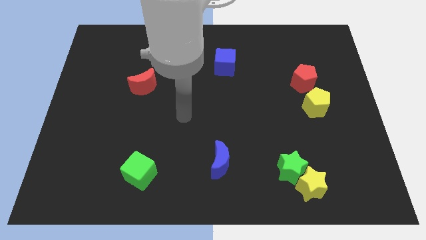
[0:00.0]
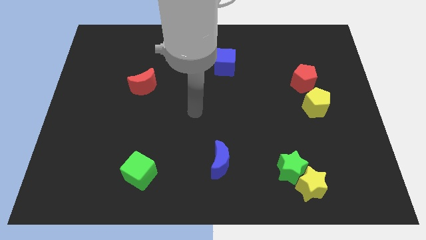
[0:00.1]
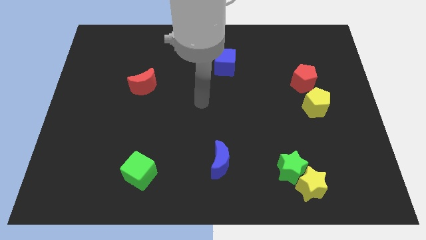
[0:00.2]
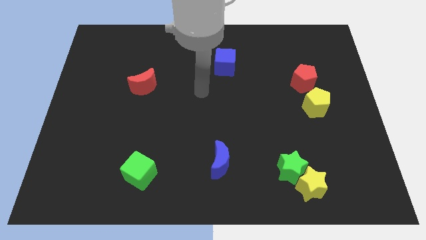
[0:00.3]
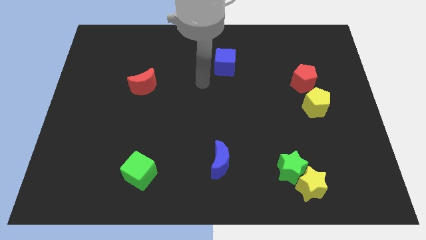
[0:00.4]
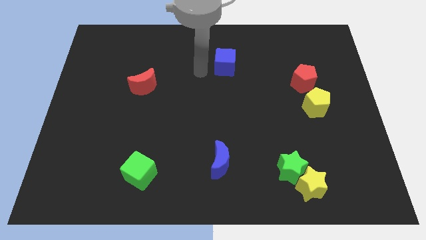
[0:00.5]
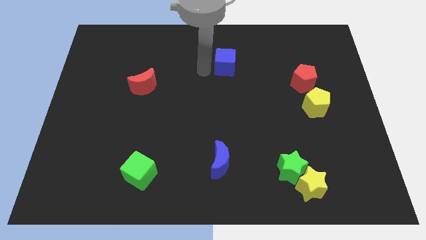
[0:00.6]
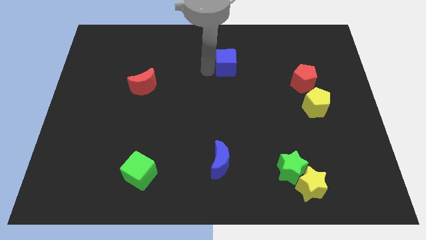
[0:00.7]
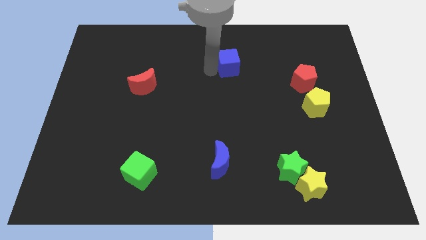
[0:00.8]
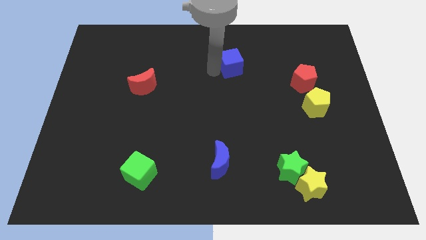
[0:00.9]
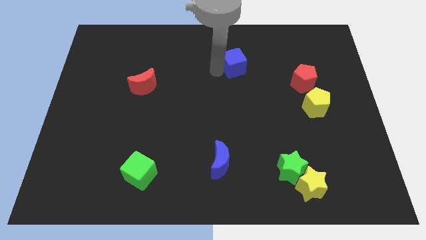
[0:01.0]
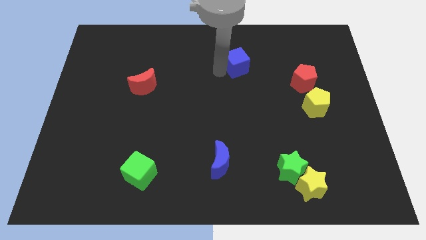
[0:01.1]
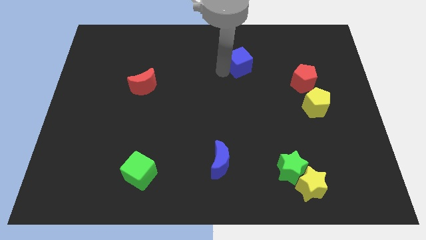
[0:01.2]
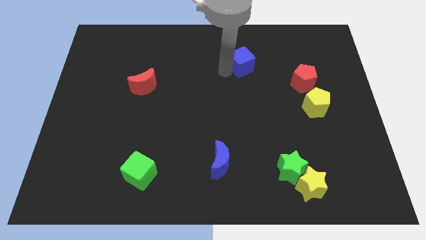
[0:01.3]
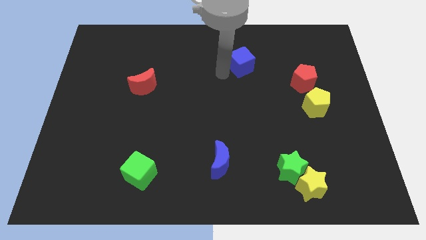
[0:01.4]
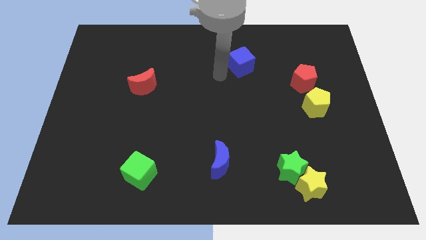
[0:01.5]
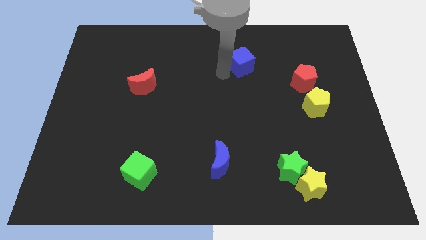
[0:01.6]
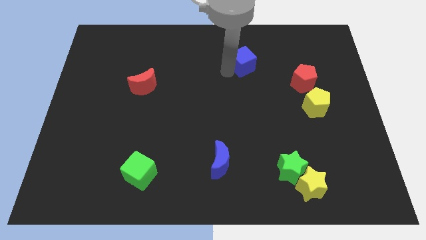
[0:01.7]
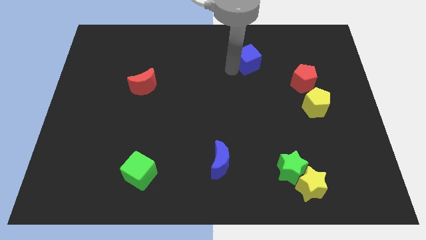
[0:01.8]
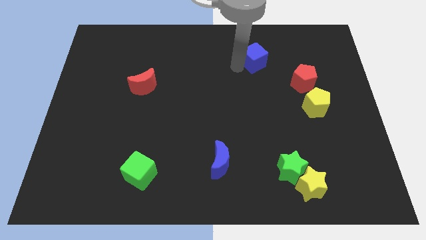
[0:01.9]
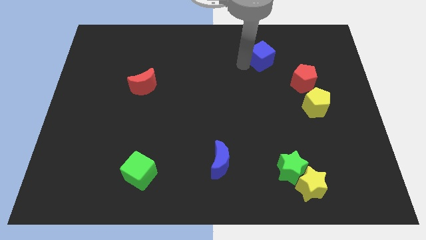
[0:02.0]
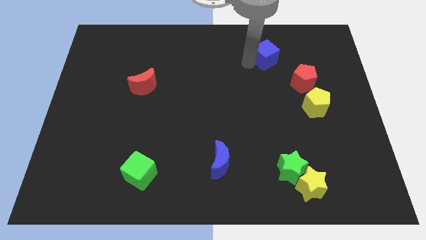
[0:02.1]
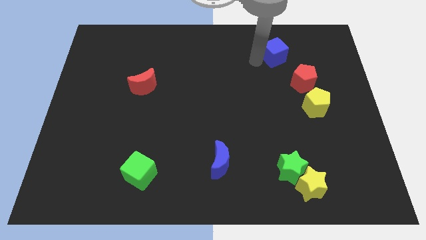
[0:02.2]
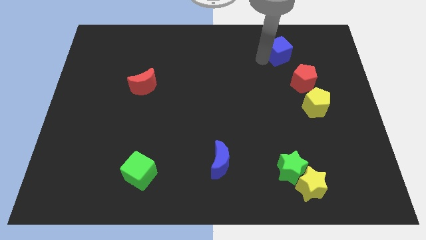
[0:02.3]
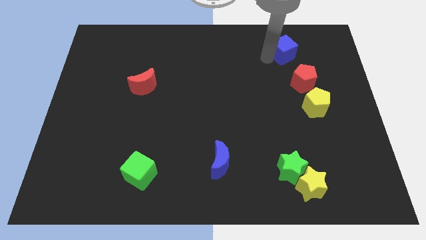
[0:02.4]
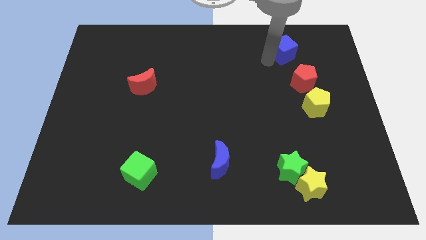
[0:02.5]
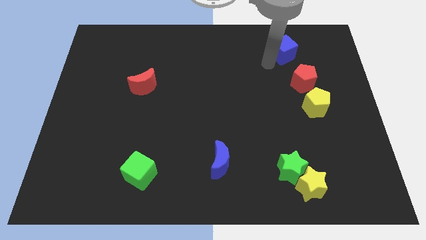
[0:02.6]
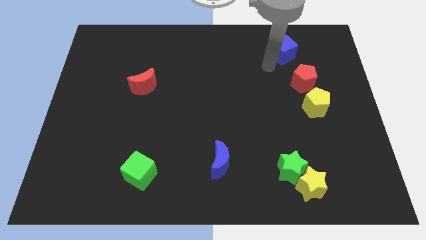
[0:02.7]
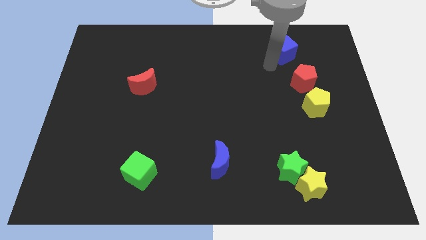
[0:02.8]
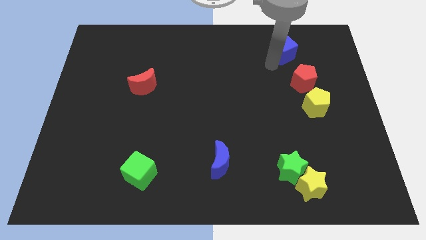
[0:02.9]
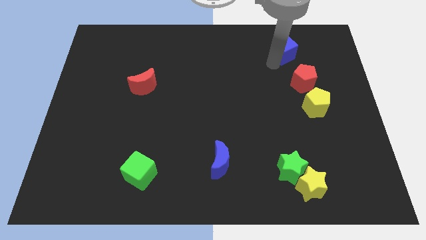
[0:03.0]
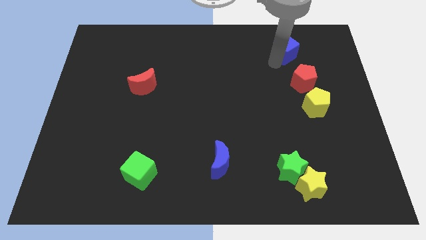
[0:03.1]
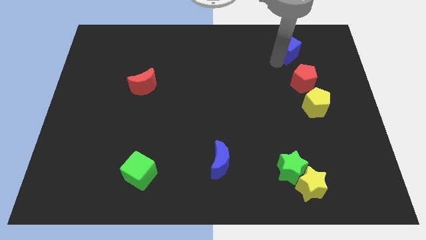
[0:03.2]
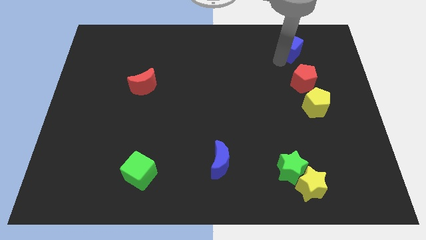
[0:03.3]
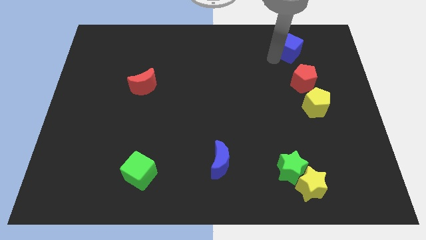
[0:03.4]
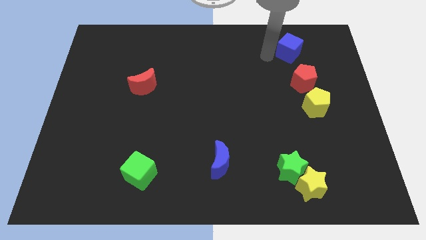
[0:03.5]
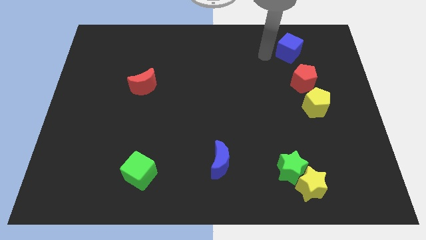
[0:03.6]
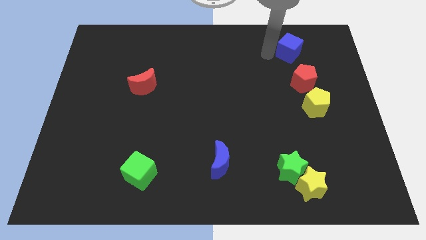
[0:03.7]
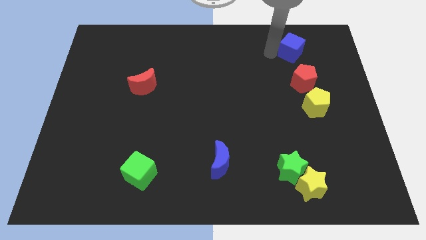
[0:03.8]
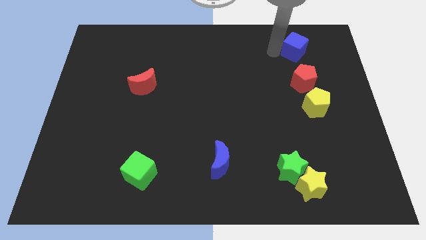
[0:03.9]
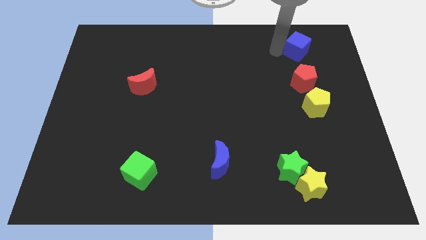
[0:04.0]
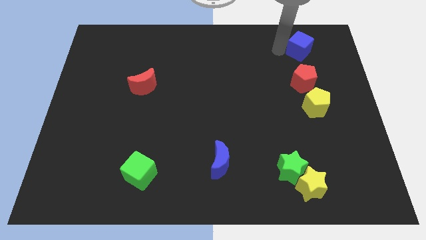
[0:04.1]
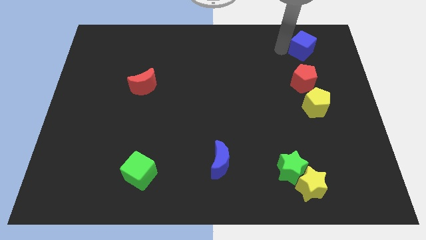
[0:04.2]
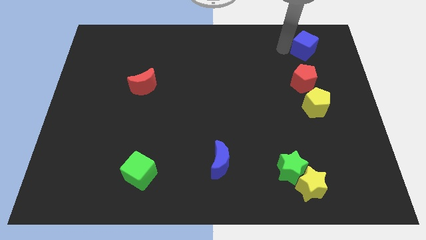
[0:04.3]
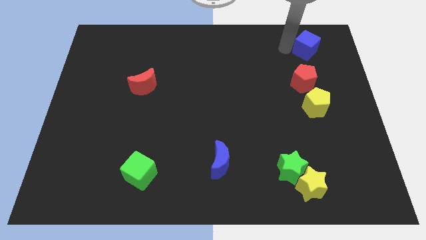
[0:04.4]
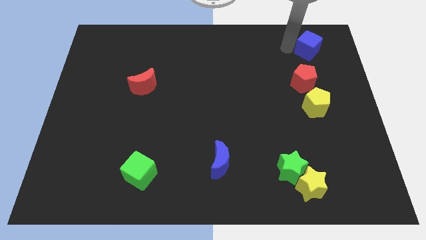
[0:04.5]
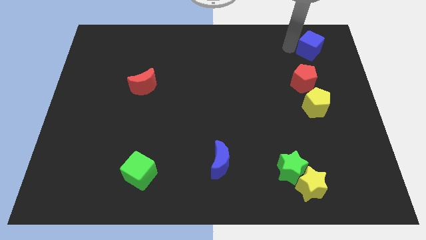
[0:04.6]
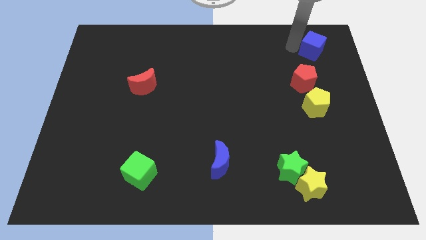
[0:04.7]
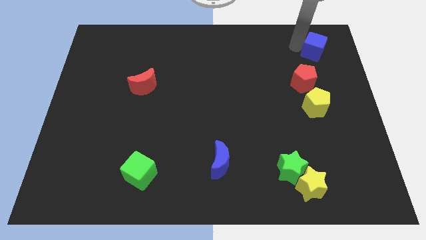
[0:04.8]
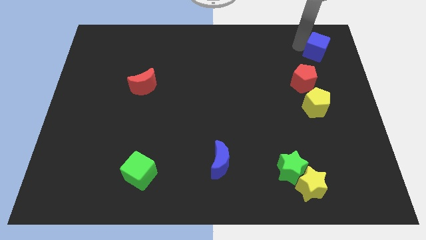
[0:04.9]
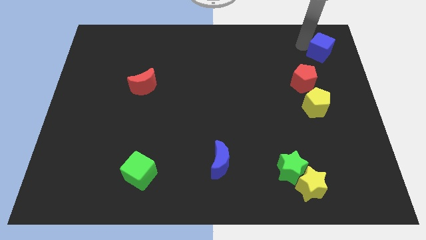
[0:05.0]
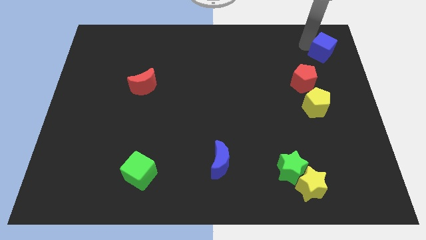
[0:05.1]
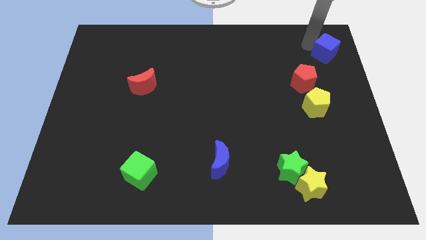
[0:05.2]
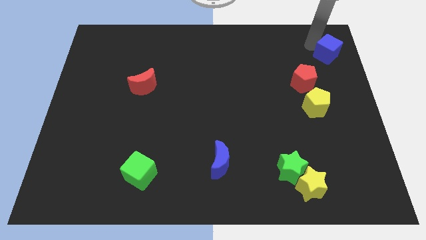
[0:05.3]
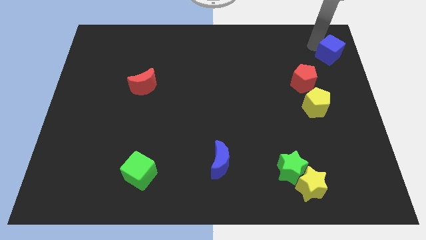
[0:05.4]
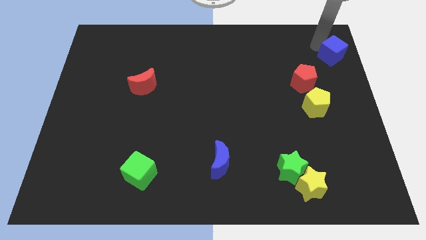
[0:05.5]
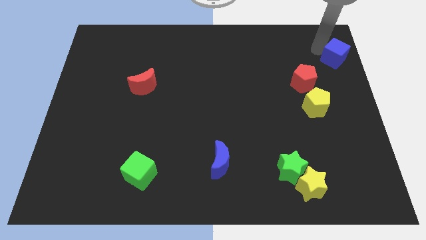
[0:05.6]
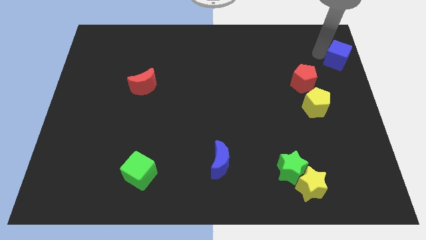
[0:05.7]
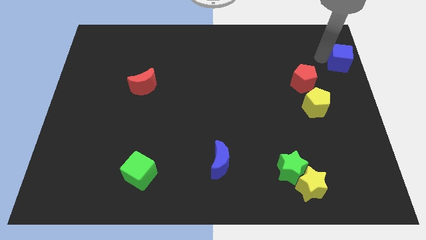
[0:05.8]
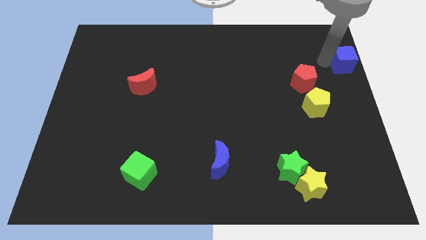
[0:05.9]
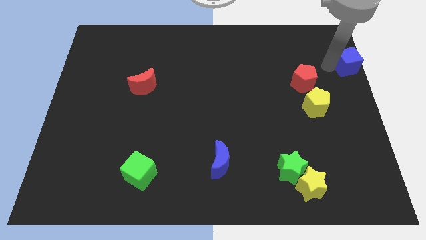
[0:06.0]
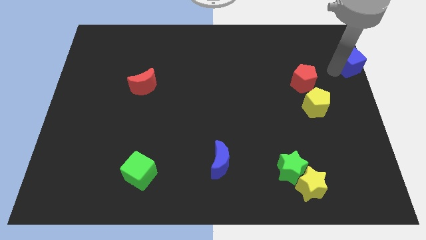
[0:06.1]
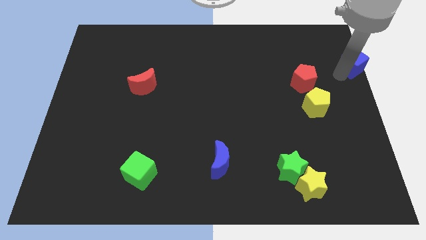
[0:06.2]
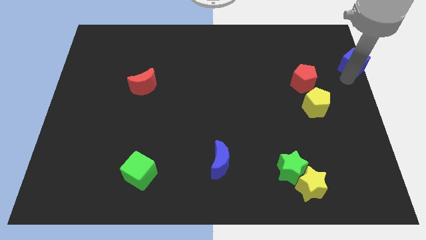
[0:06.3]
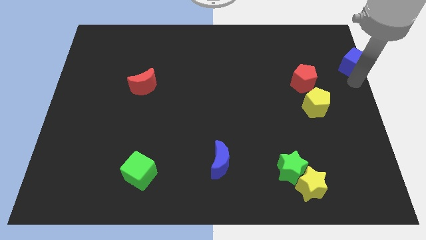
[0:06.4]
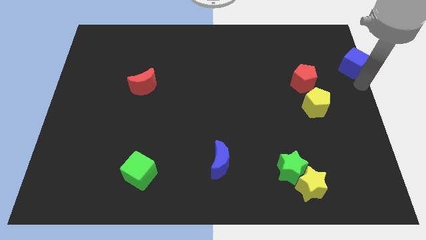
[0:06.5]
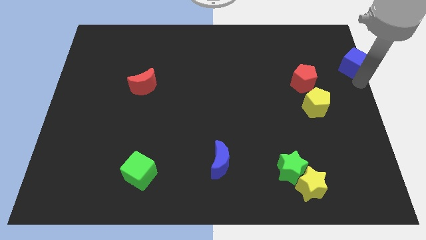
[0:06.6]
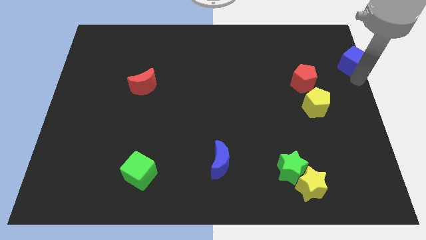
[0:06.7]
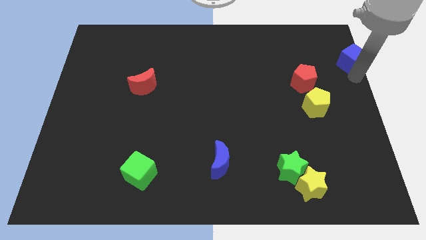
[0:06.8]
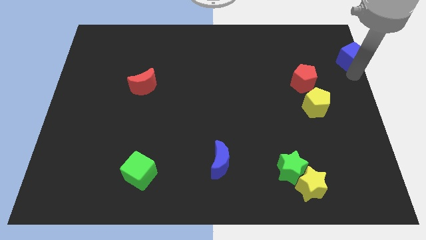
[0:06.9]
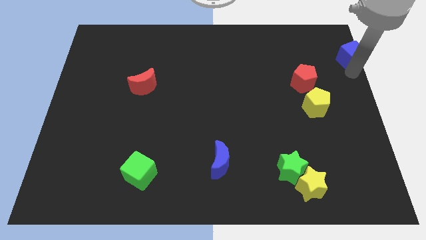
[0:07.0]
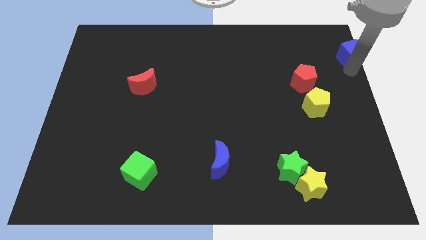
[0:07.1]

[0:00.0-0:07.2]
push the blue cube to the upper right corner
